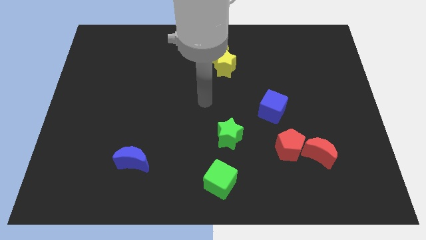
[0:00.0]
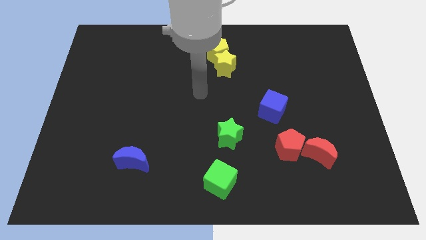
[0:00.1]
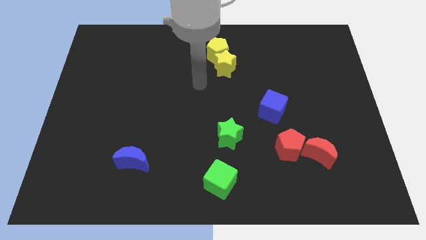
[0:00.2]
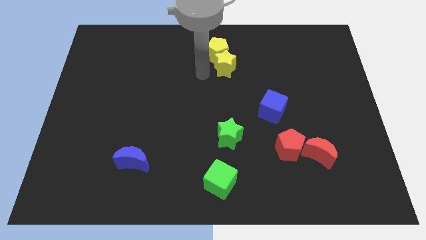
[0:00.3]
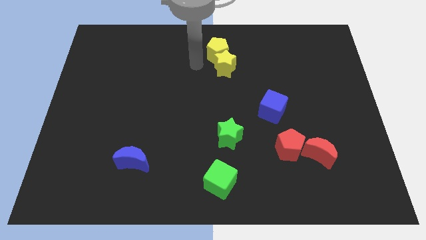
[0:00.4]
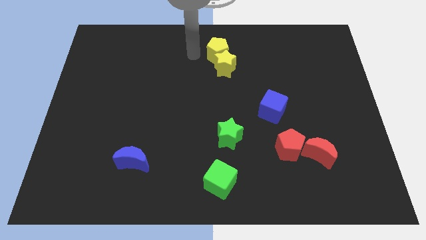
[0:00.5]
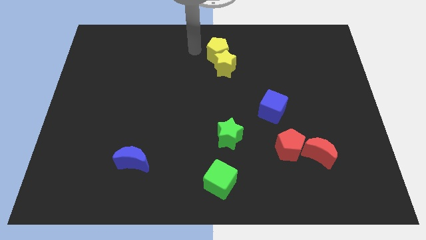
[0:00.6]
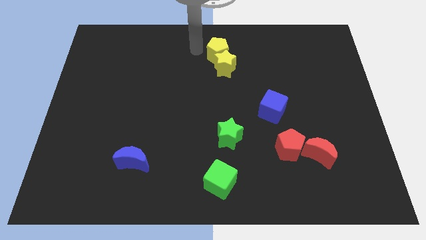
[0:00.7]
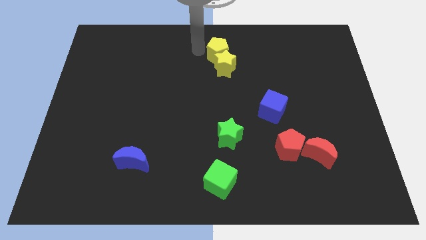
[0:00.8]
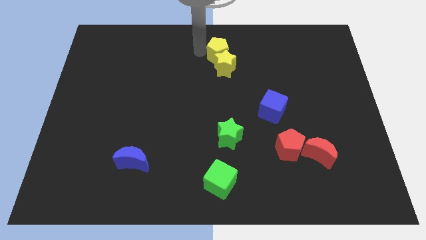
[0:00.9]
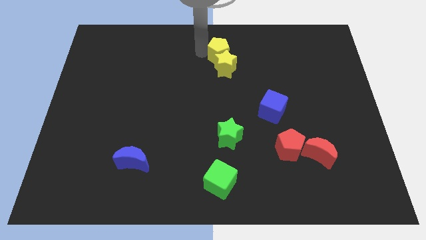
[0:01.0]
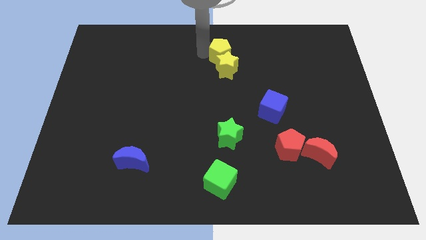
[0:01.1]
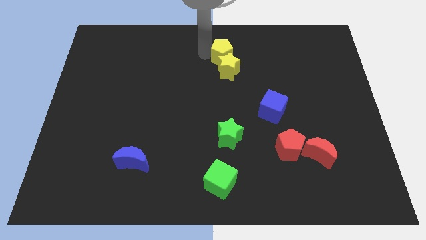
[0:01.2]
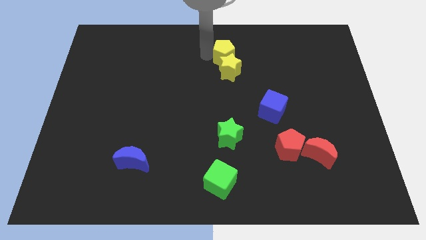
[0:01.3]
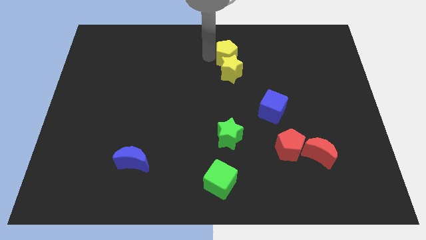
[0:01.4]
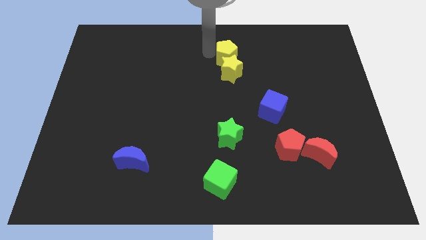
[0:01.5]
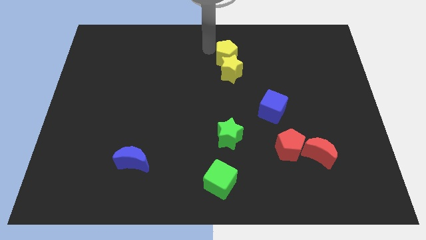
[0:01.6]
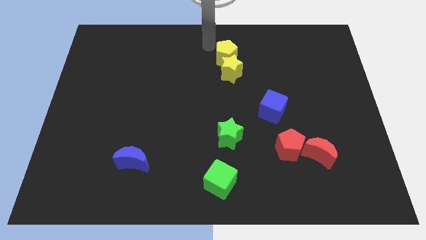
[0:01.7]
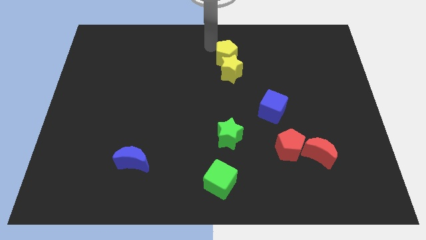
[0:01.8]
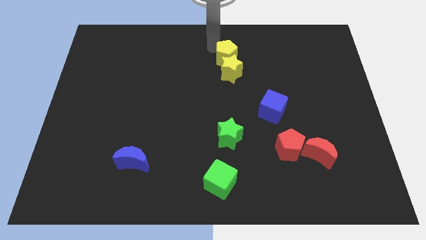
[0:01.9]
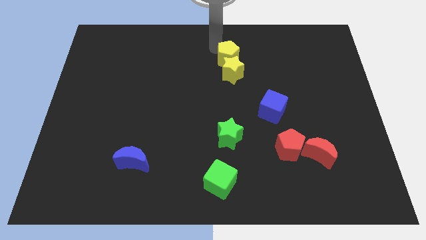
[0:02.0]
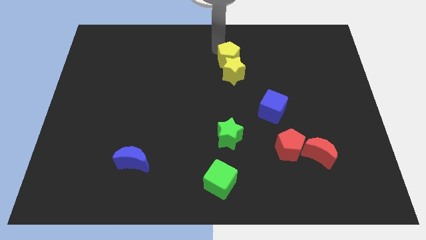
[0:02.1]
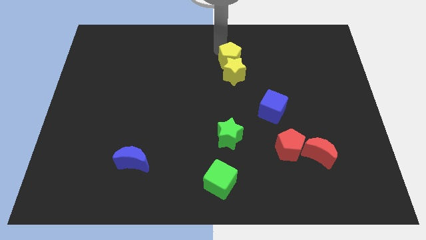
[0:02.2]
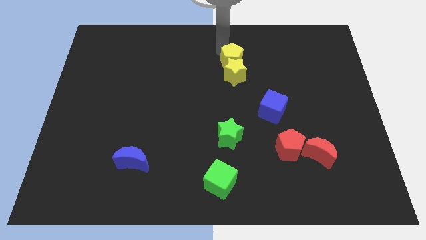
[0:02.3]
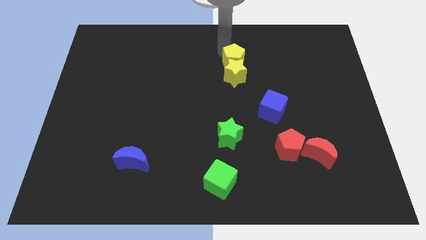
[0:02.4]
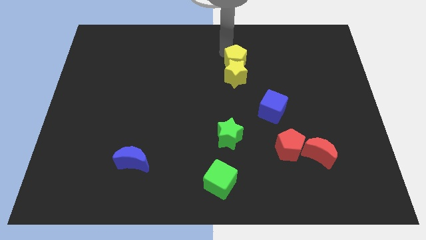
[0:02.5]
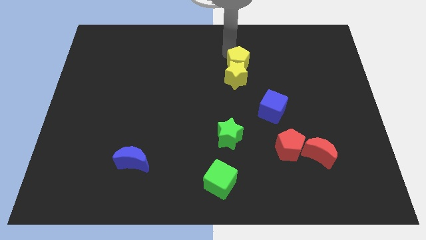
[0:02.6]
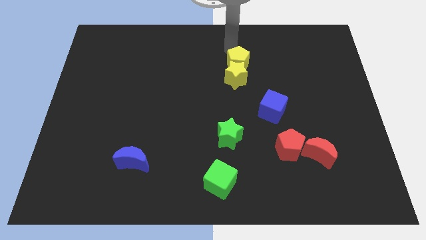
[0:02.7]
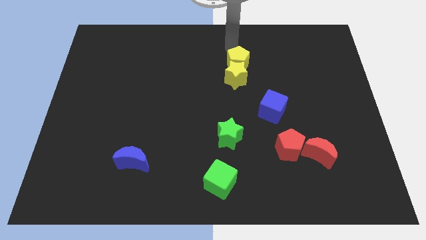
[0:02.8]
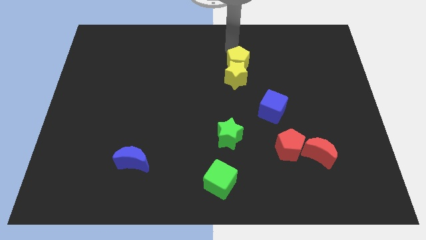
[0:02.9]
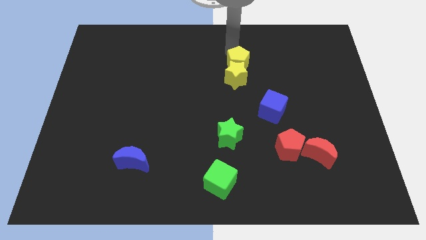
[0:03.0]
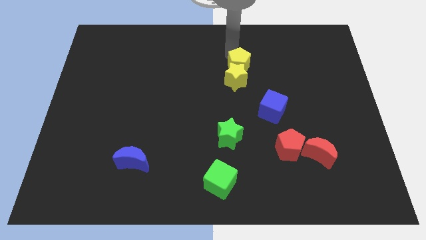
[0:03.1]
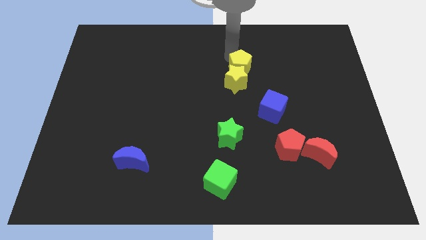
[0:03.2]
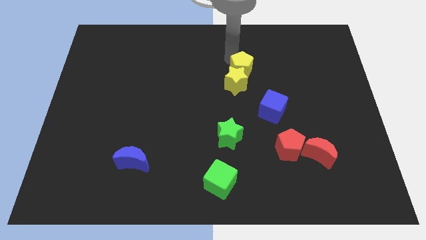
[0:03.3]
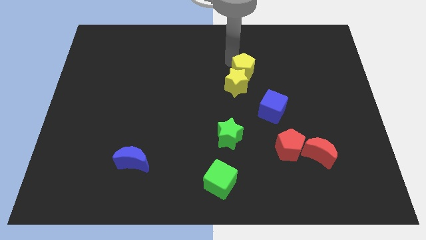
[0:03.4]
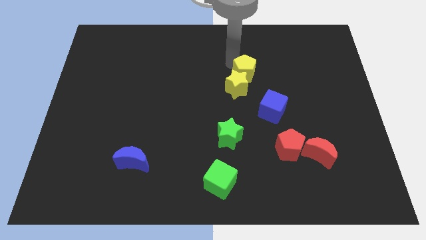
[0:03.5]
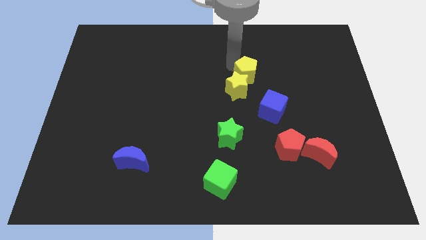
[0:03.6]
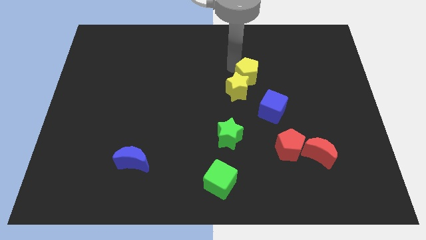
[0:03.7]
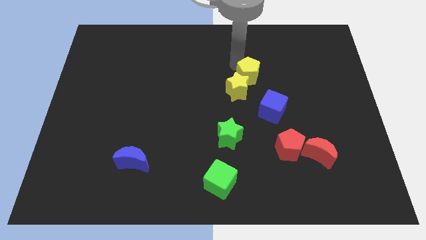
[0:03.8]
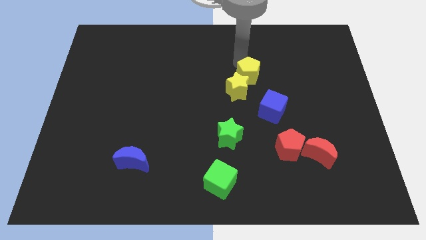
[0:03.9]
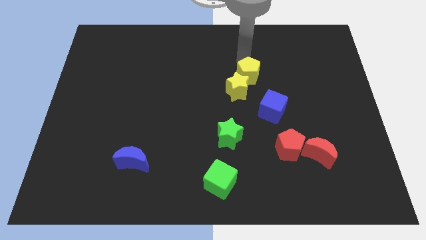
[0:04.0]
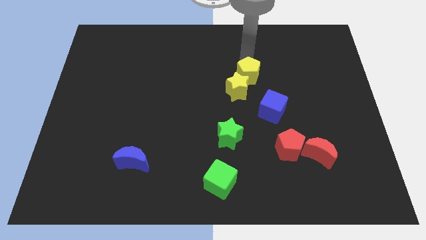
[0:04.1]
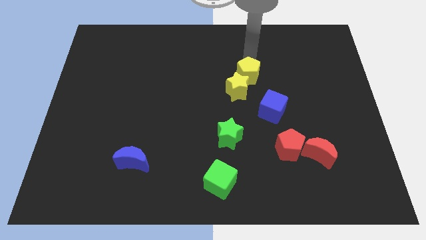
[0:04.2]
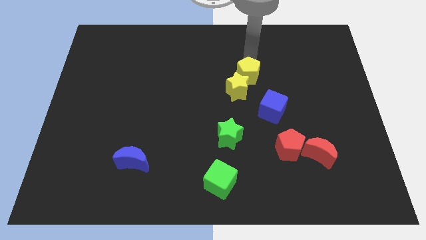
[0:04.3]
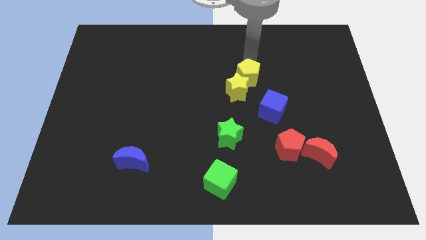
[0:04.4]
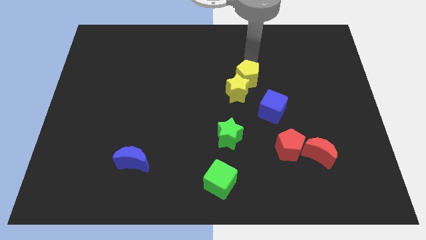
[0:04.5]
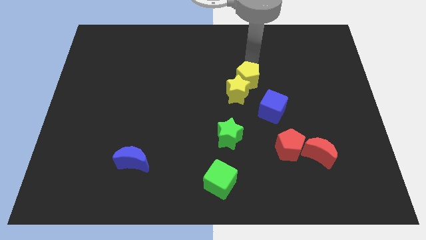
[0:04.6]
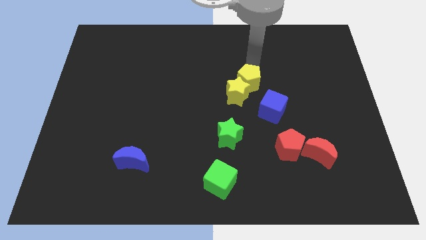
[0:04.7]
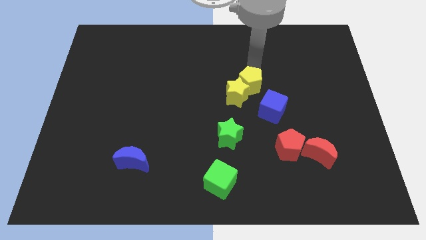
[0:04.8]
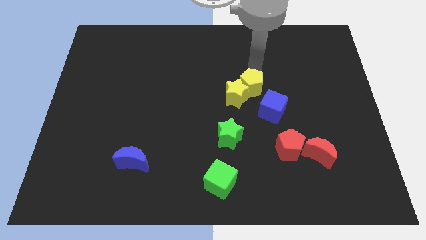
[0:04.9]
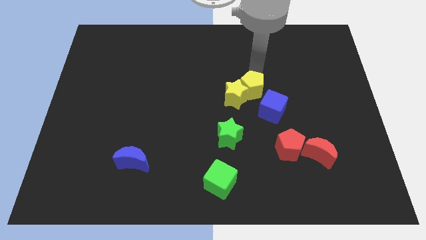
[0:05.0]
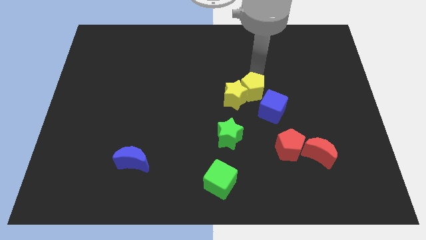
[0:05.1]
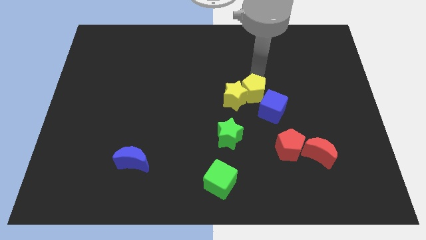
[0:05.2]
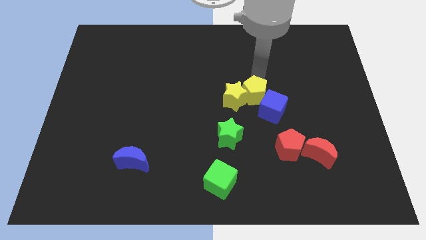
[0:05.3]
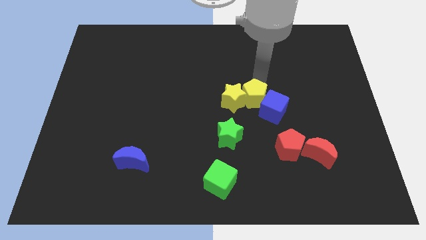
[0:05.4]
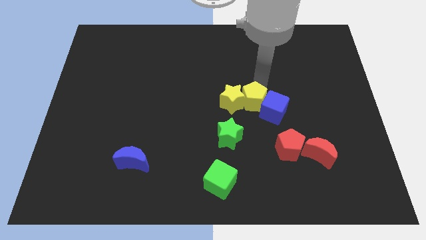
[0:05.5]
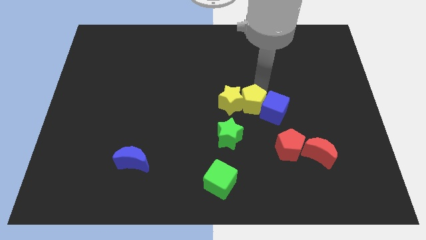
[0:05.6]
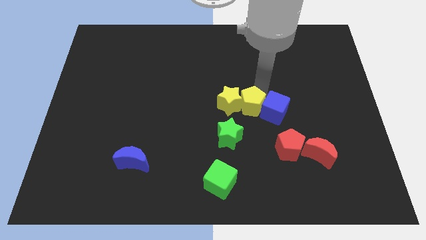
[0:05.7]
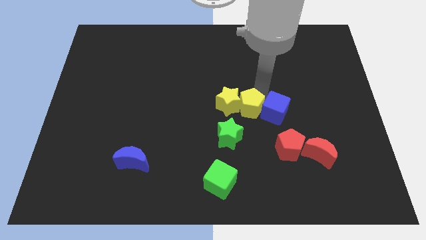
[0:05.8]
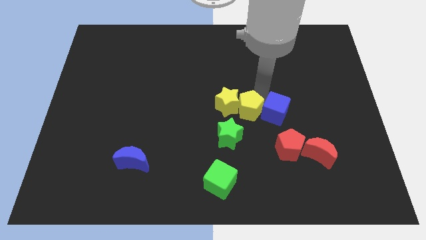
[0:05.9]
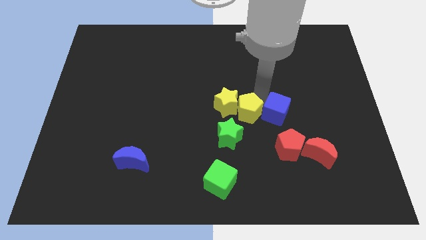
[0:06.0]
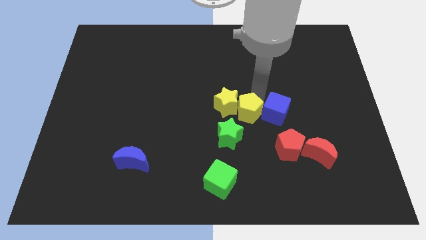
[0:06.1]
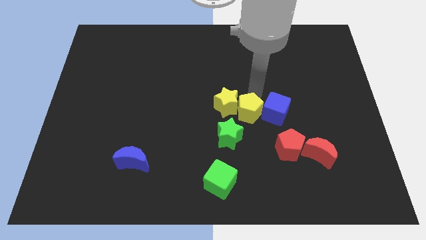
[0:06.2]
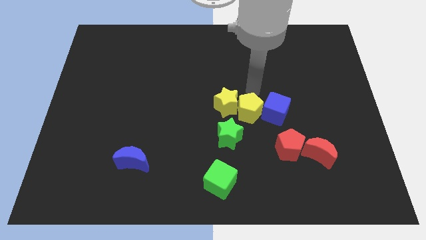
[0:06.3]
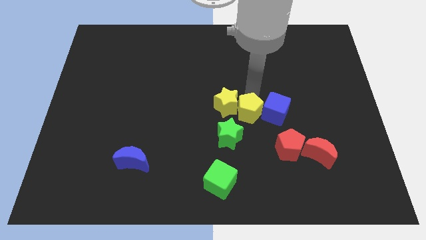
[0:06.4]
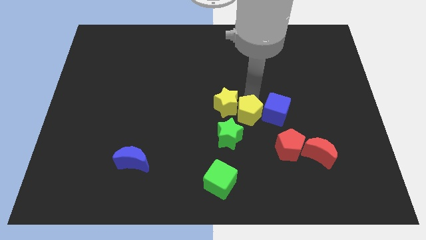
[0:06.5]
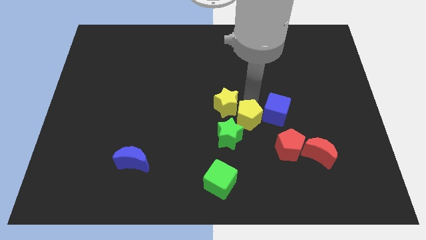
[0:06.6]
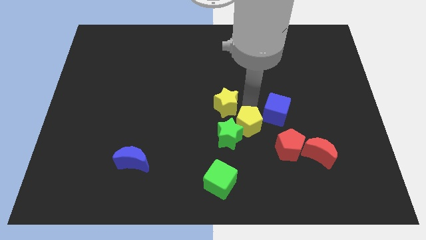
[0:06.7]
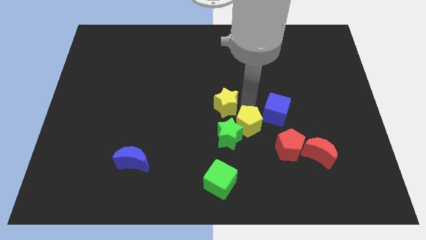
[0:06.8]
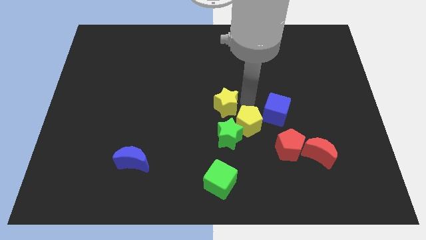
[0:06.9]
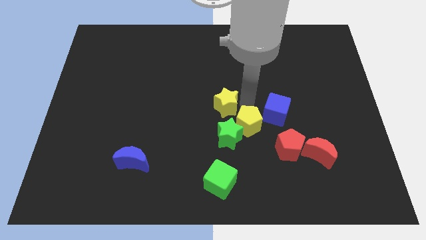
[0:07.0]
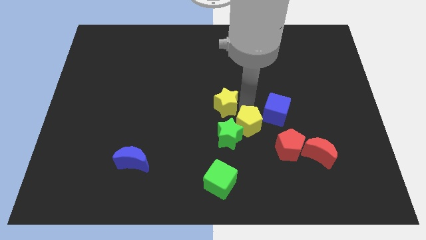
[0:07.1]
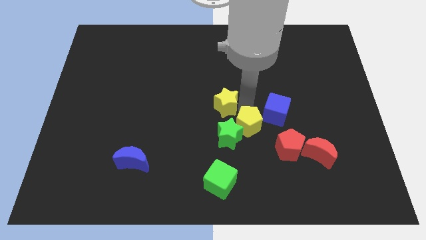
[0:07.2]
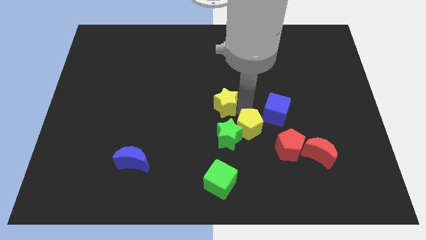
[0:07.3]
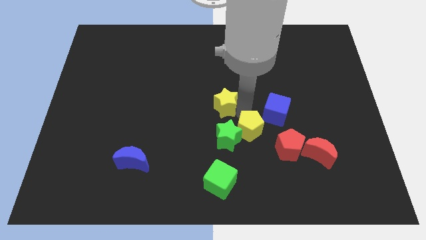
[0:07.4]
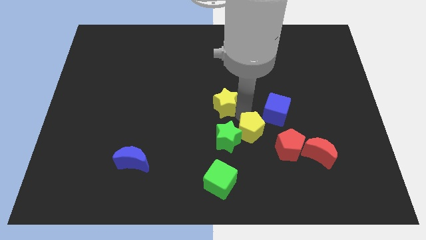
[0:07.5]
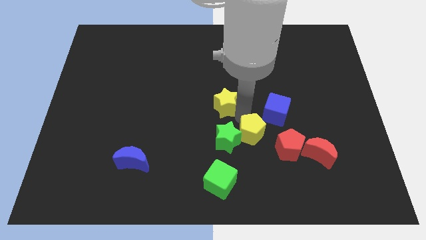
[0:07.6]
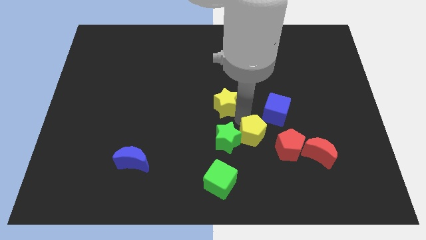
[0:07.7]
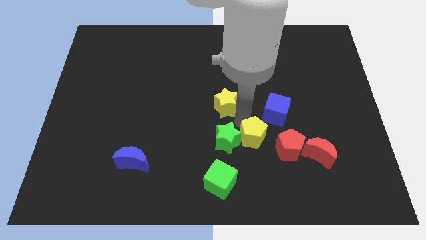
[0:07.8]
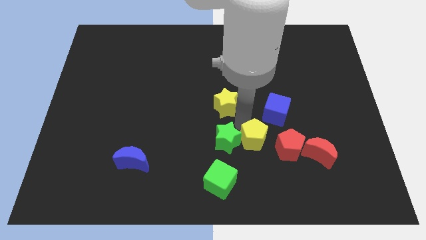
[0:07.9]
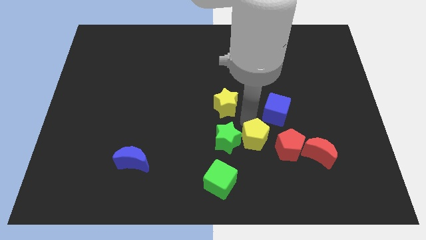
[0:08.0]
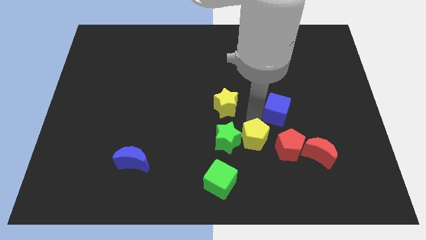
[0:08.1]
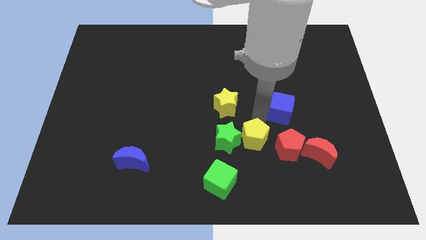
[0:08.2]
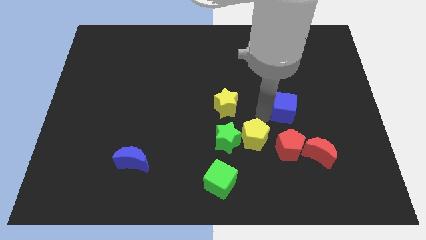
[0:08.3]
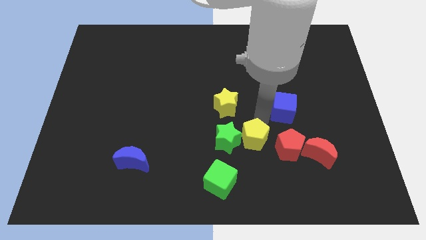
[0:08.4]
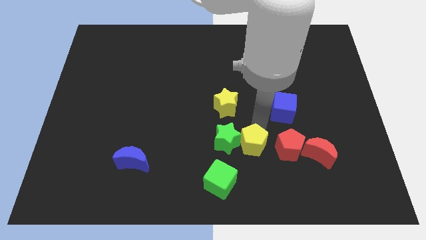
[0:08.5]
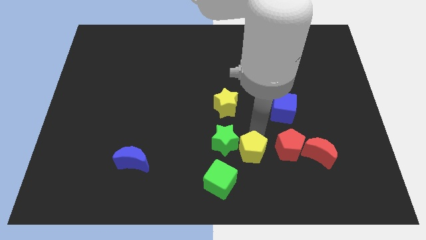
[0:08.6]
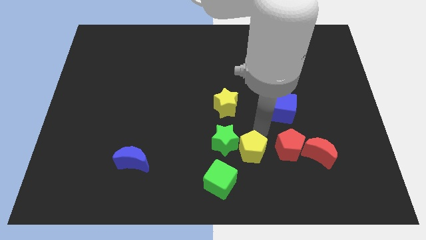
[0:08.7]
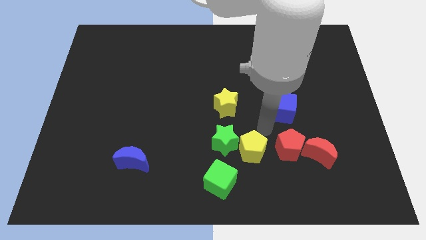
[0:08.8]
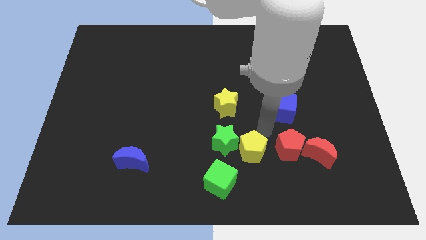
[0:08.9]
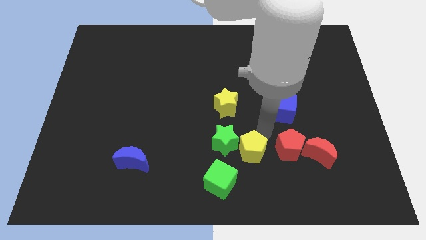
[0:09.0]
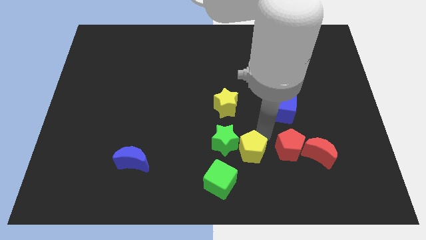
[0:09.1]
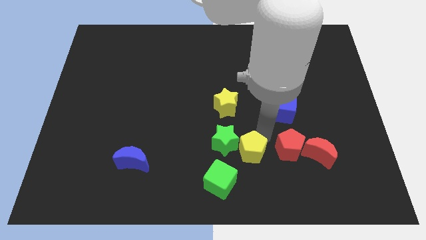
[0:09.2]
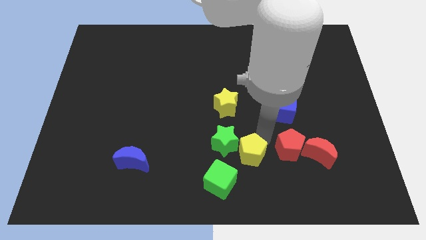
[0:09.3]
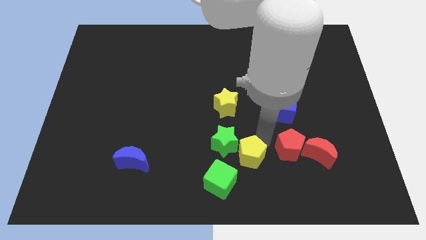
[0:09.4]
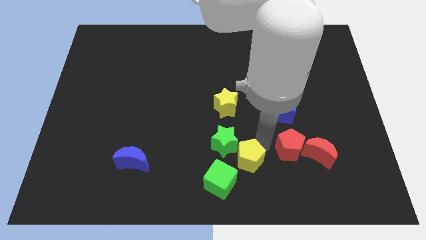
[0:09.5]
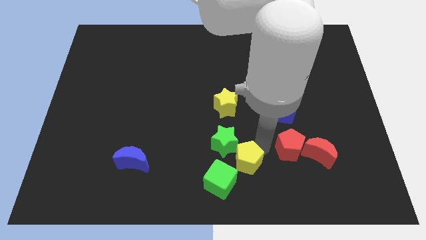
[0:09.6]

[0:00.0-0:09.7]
push the yellow pentagon below the green star
